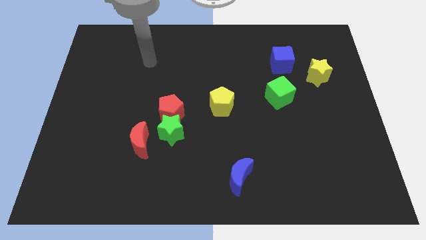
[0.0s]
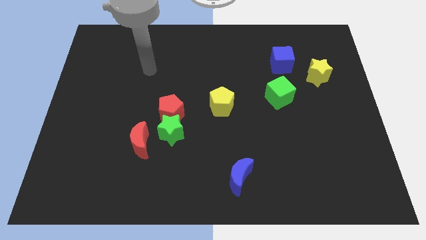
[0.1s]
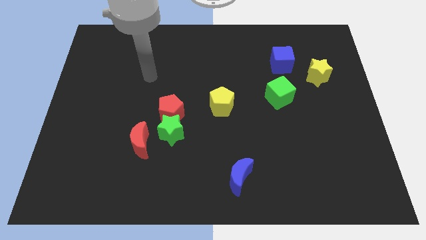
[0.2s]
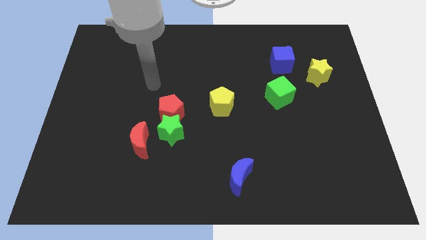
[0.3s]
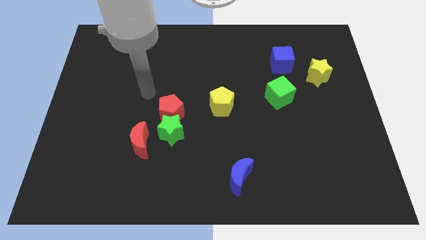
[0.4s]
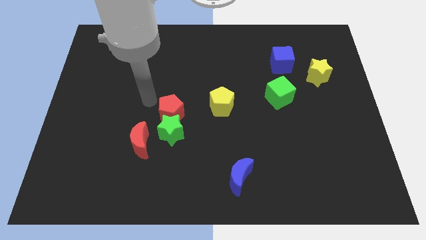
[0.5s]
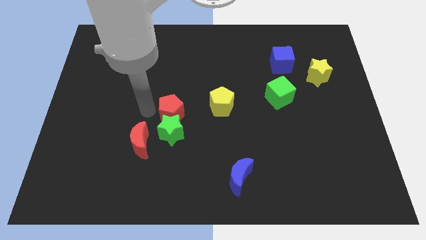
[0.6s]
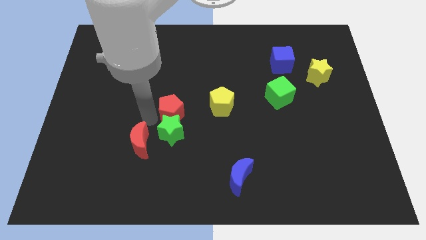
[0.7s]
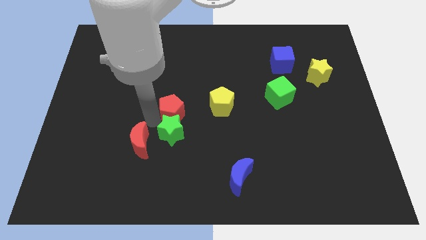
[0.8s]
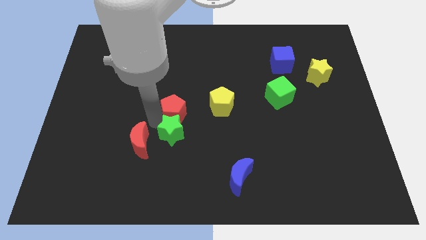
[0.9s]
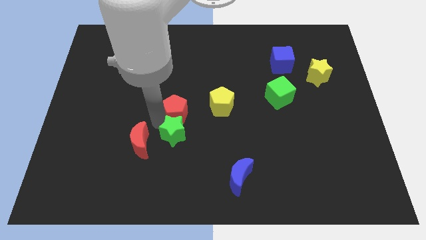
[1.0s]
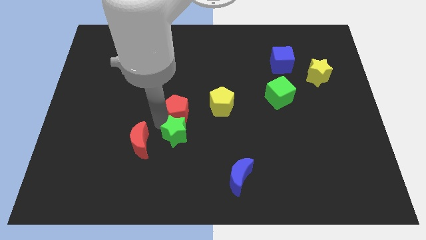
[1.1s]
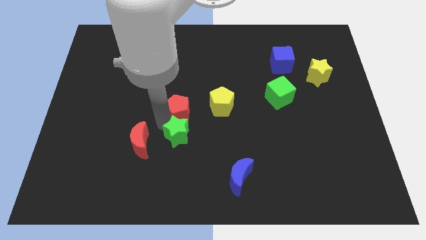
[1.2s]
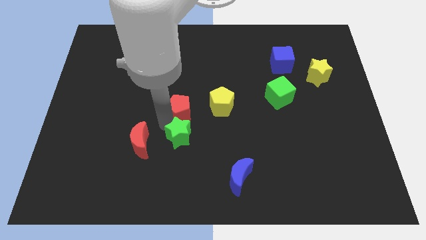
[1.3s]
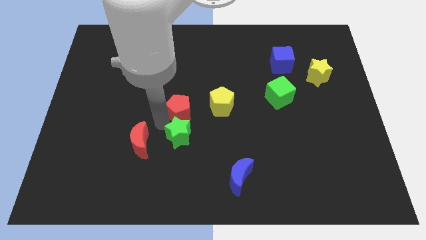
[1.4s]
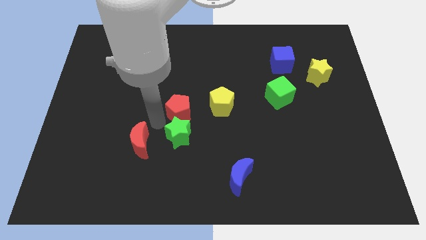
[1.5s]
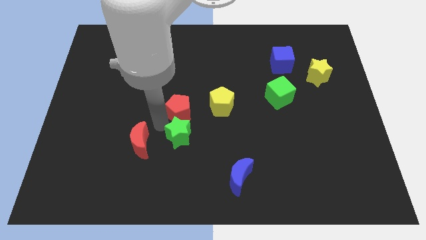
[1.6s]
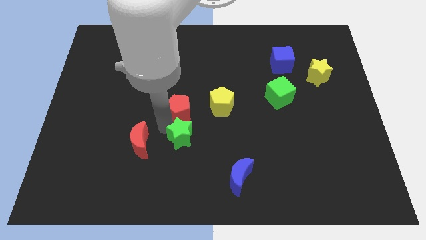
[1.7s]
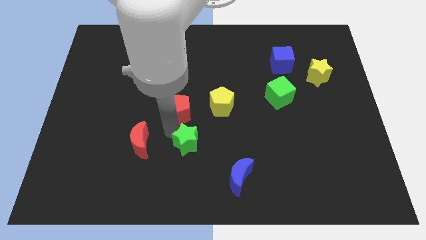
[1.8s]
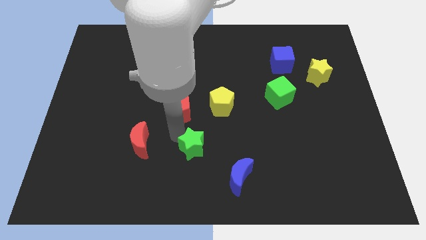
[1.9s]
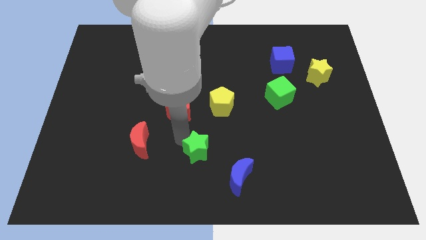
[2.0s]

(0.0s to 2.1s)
move the green star away from the red pentagon and red moon

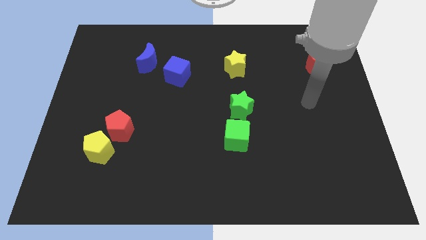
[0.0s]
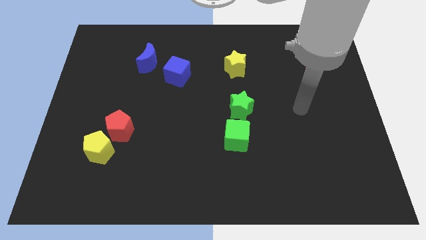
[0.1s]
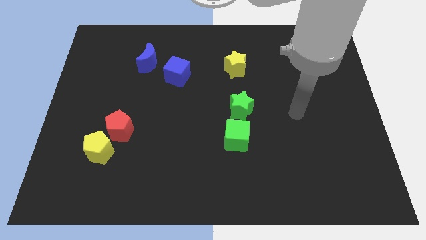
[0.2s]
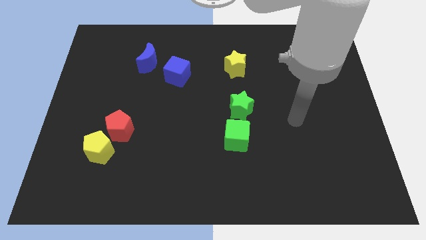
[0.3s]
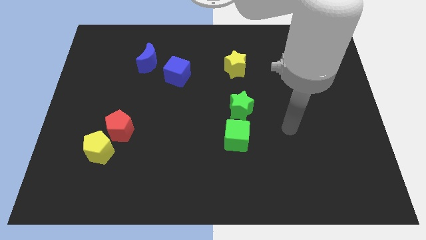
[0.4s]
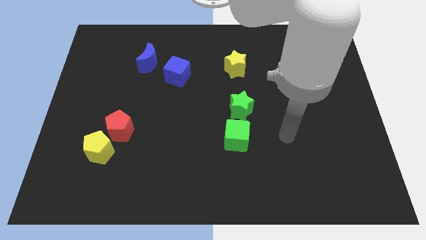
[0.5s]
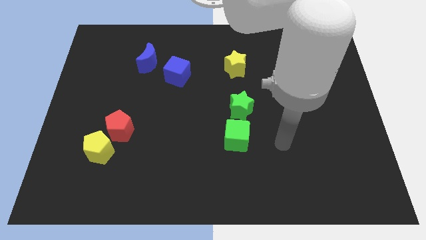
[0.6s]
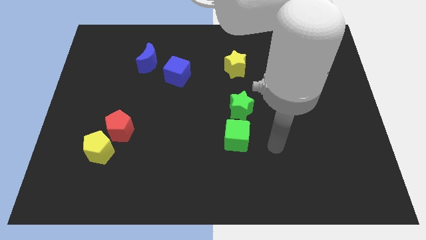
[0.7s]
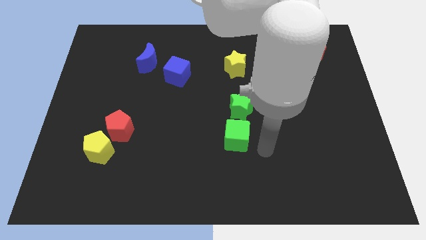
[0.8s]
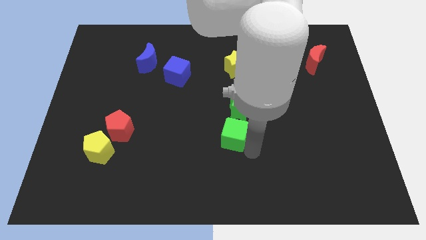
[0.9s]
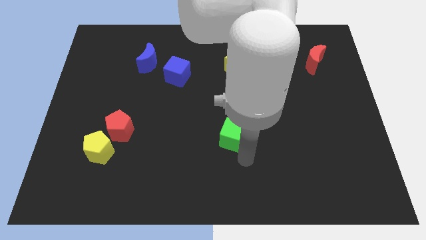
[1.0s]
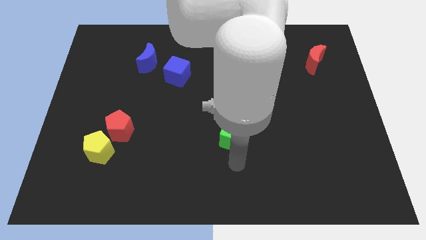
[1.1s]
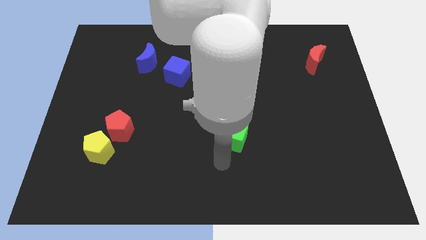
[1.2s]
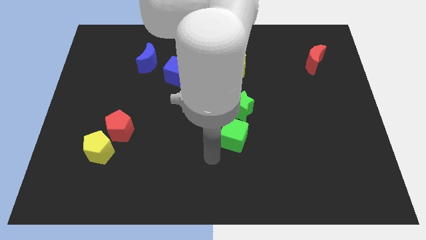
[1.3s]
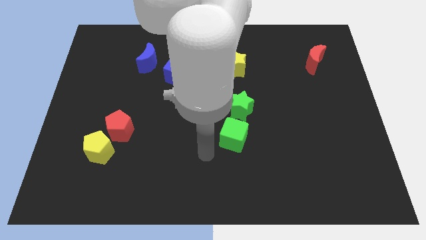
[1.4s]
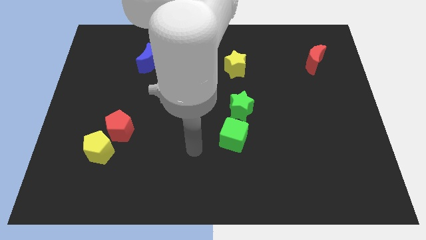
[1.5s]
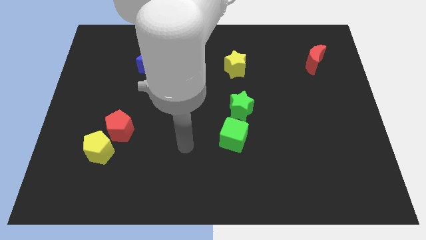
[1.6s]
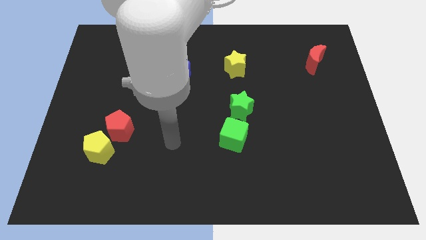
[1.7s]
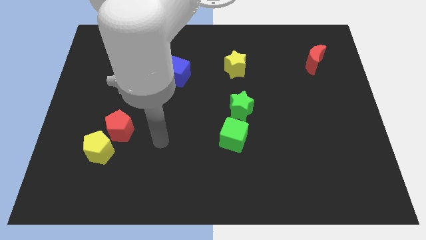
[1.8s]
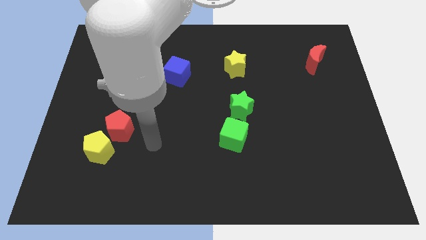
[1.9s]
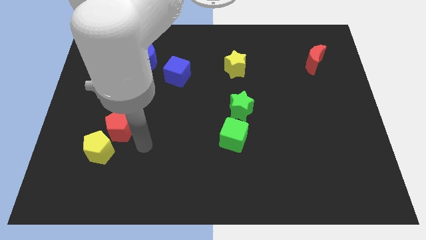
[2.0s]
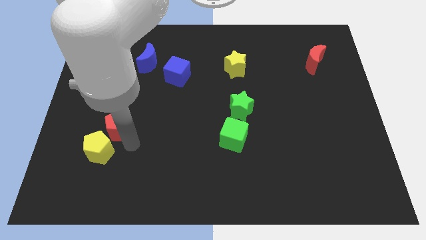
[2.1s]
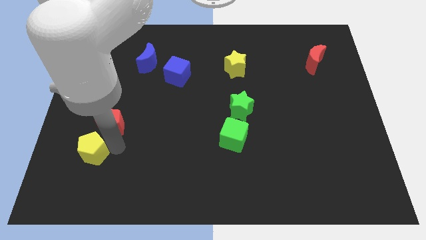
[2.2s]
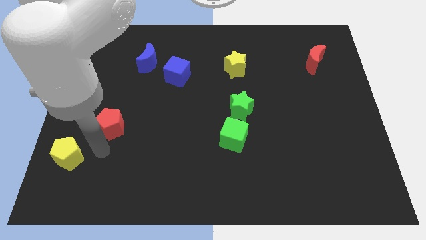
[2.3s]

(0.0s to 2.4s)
pull the red pentagon apart from the yellow pentagon

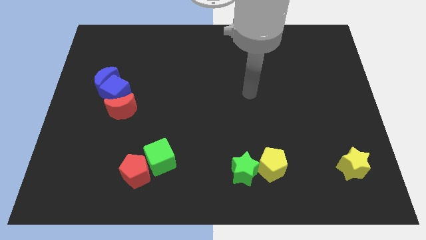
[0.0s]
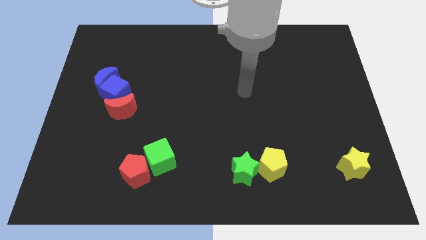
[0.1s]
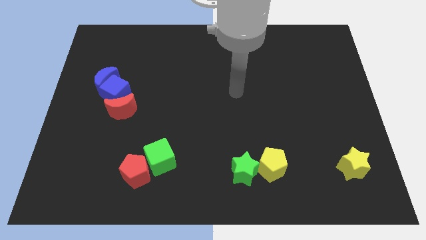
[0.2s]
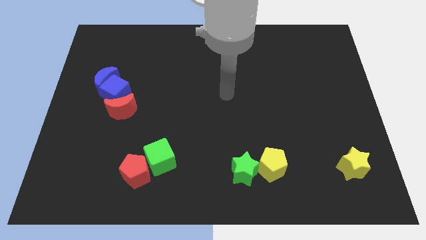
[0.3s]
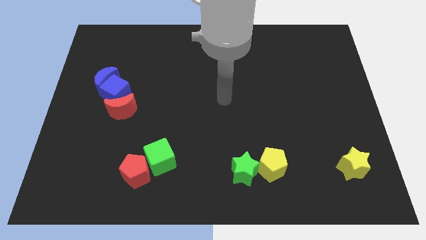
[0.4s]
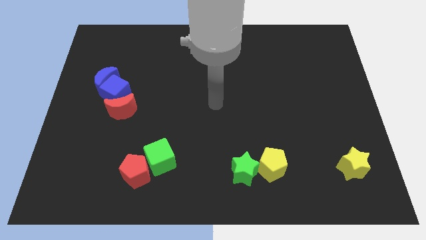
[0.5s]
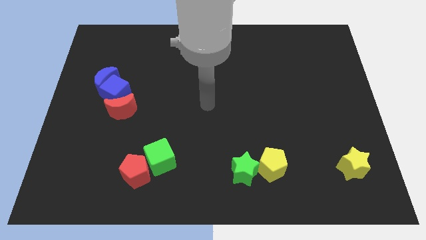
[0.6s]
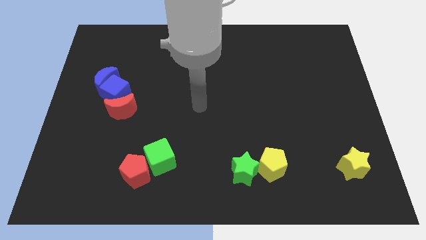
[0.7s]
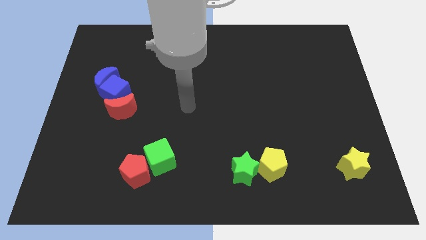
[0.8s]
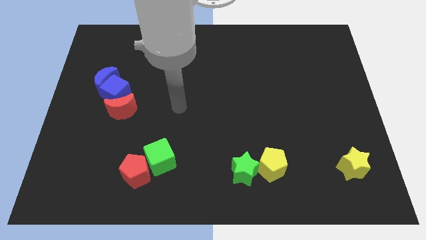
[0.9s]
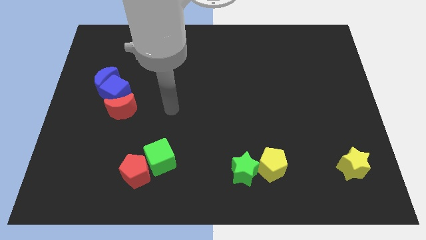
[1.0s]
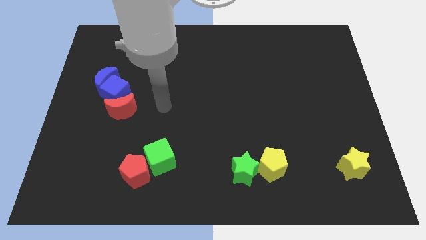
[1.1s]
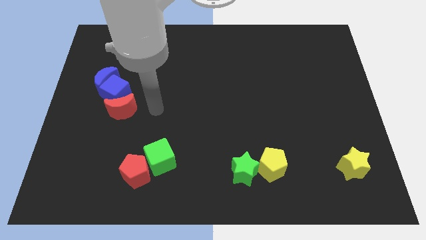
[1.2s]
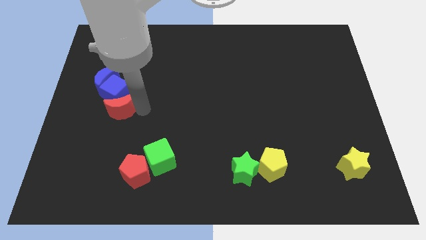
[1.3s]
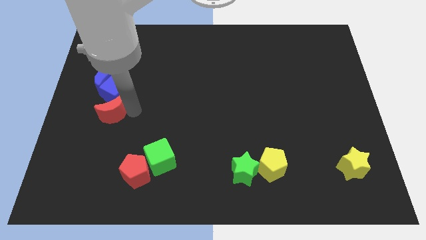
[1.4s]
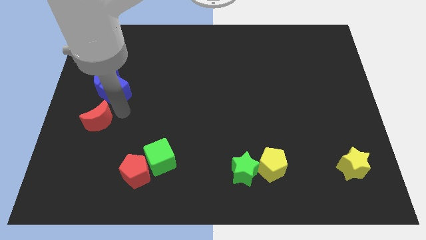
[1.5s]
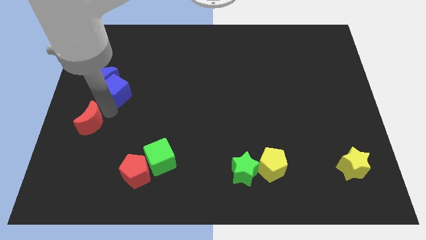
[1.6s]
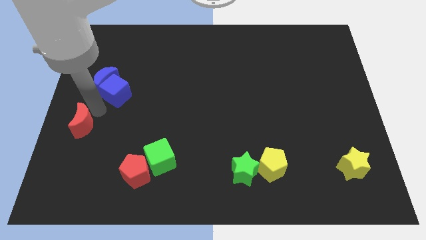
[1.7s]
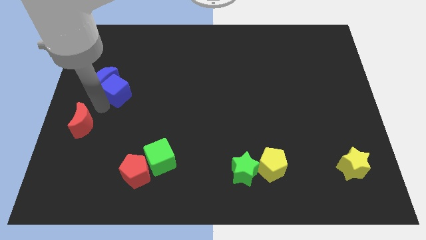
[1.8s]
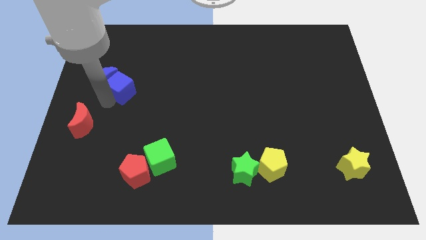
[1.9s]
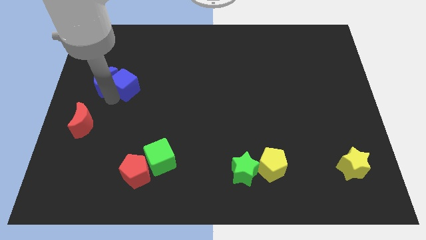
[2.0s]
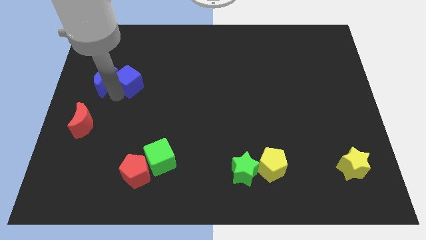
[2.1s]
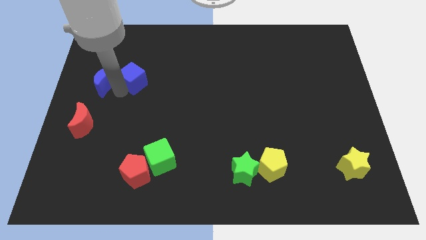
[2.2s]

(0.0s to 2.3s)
separate the blue cube from the blue moon and red moon

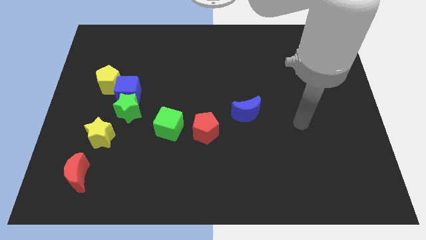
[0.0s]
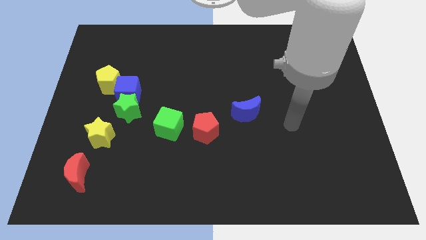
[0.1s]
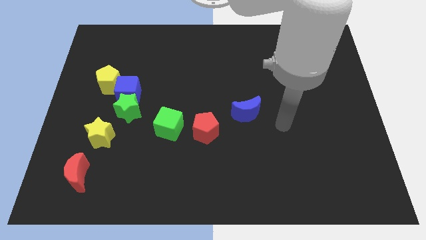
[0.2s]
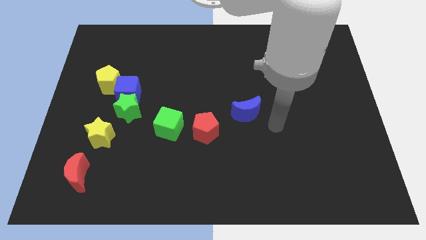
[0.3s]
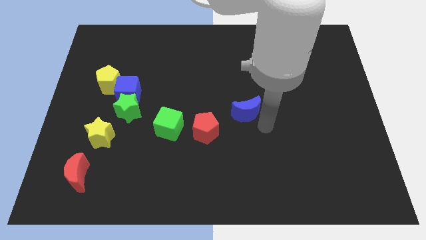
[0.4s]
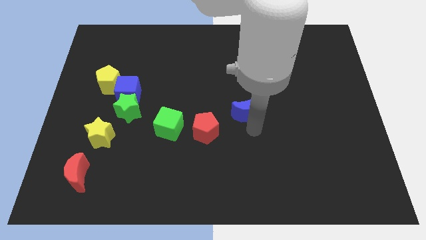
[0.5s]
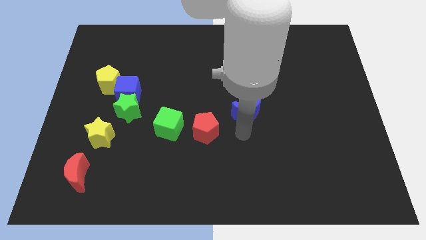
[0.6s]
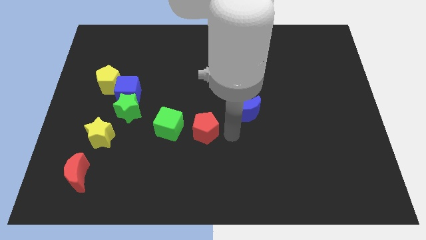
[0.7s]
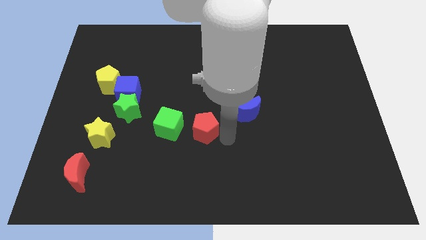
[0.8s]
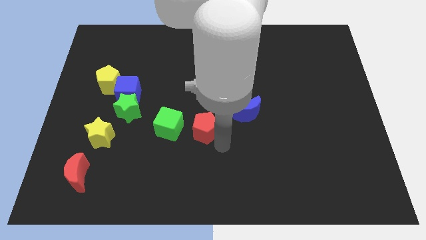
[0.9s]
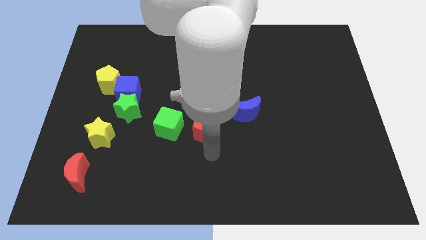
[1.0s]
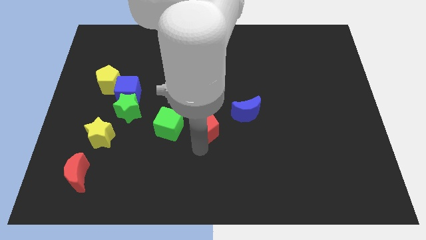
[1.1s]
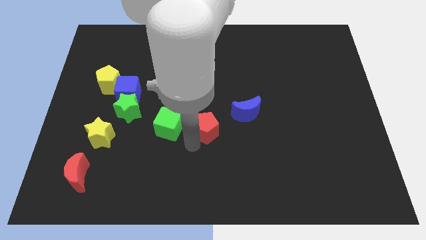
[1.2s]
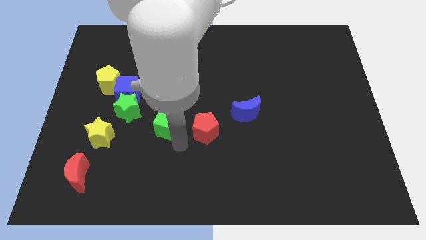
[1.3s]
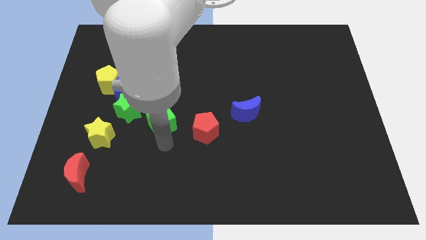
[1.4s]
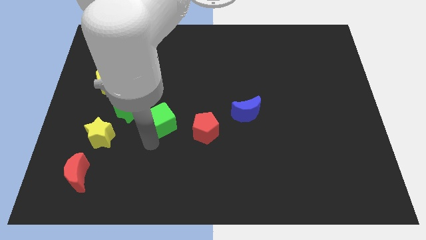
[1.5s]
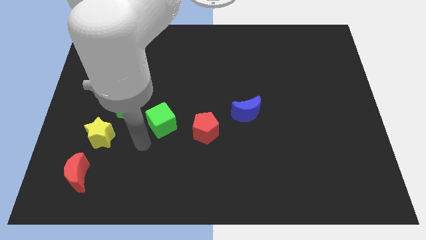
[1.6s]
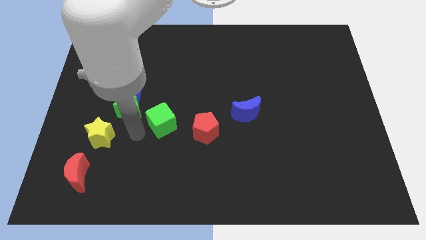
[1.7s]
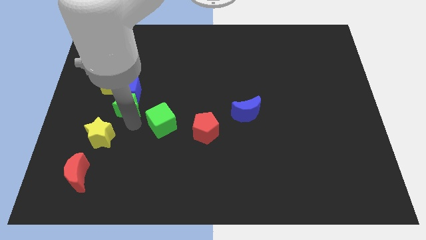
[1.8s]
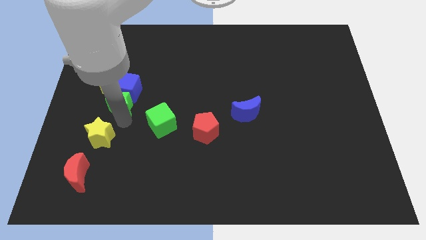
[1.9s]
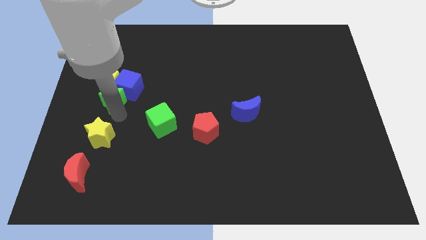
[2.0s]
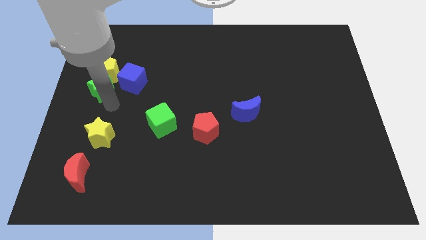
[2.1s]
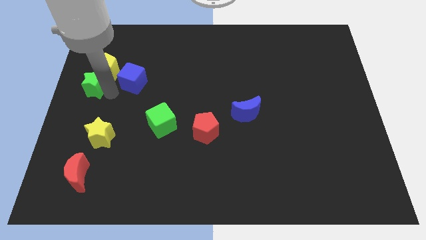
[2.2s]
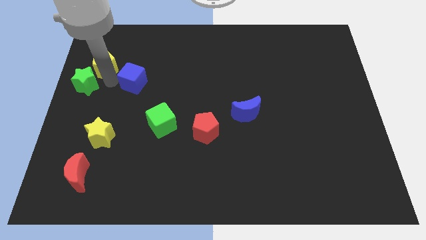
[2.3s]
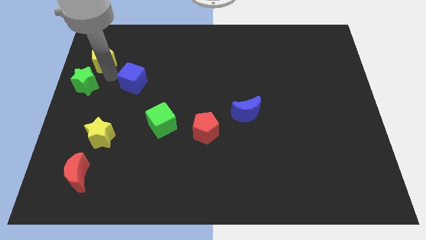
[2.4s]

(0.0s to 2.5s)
pull the blue cube apart from the green star and yellow pentagon
